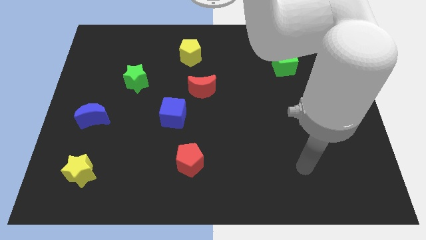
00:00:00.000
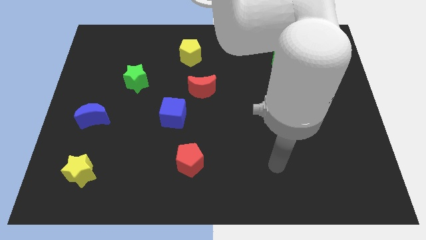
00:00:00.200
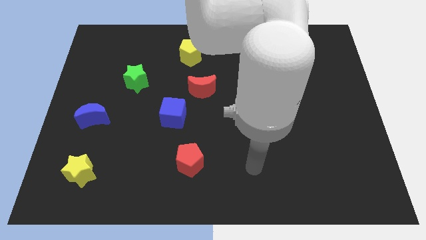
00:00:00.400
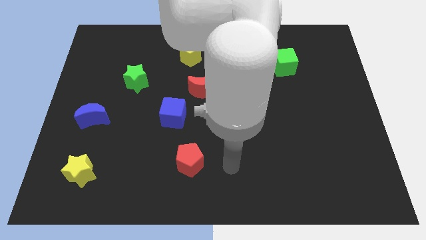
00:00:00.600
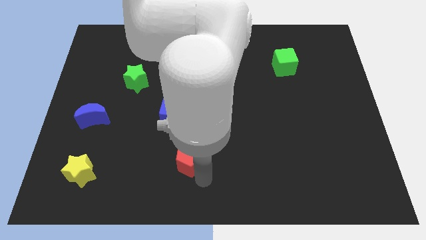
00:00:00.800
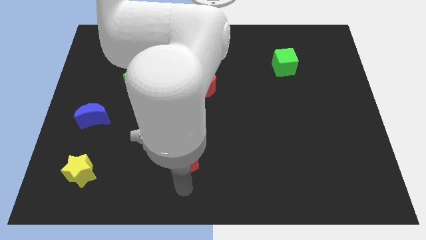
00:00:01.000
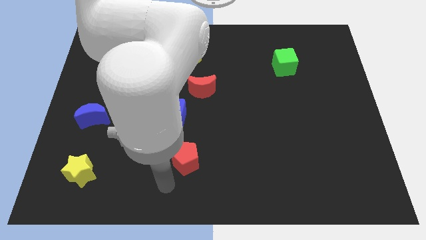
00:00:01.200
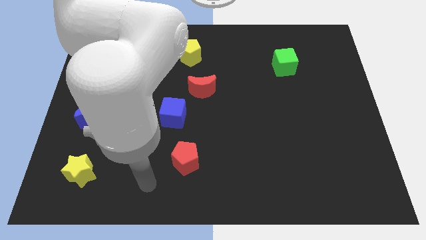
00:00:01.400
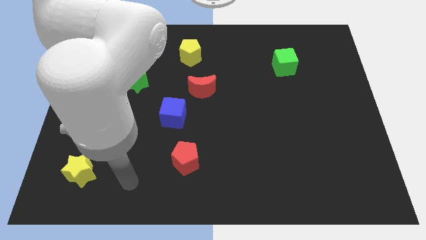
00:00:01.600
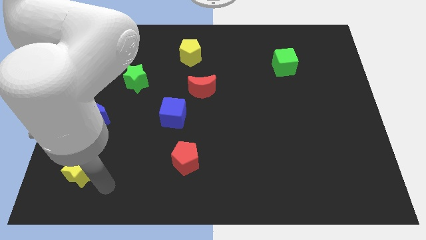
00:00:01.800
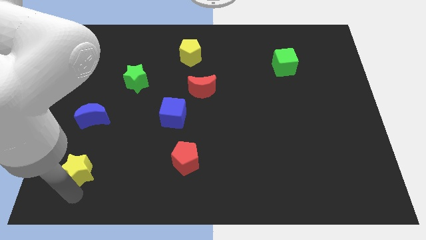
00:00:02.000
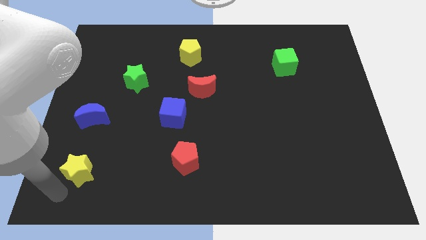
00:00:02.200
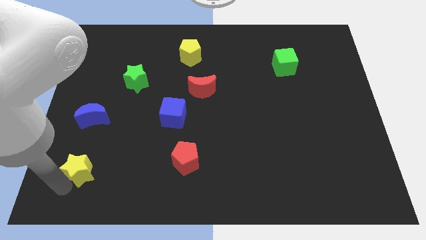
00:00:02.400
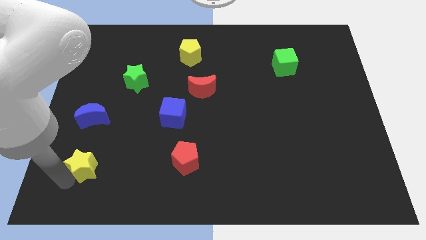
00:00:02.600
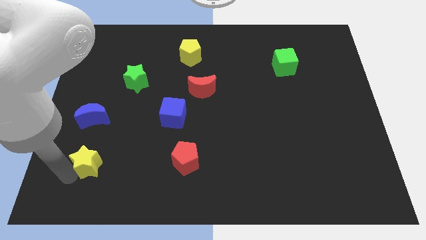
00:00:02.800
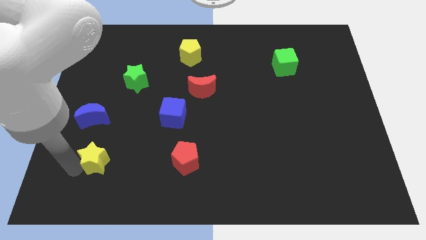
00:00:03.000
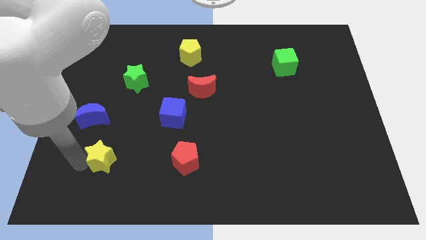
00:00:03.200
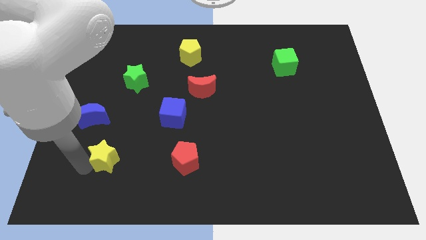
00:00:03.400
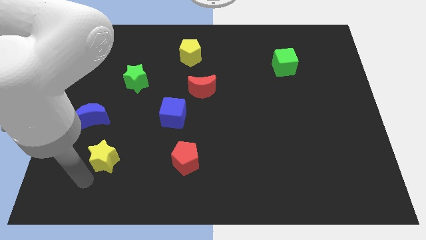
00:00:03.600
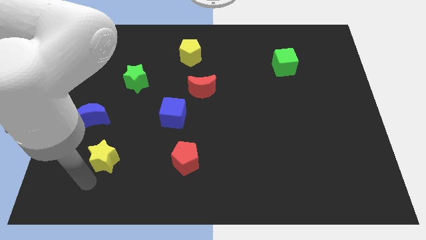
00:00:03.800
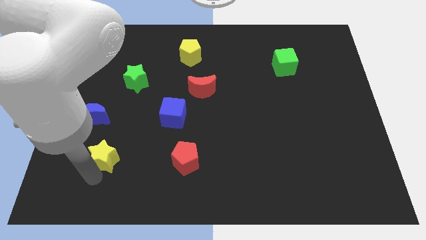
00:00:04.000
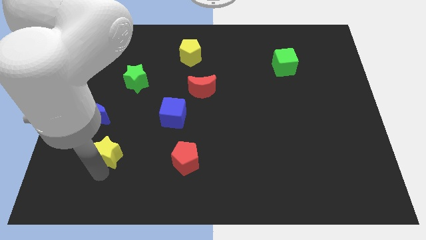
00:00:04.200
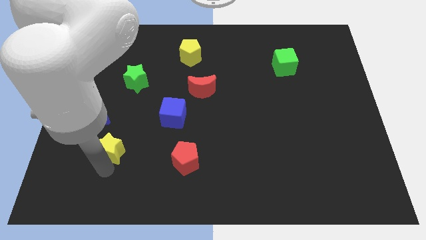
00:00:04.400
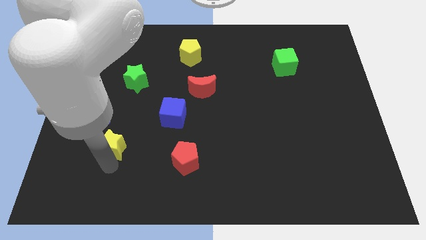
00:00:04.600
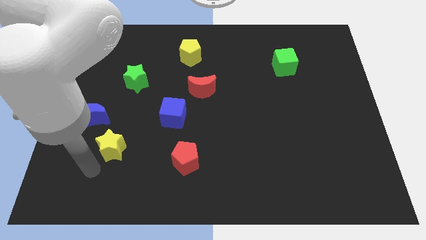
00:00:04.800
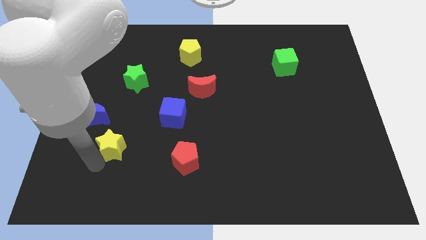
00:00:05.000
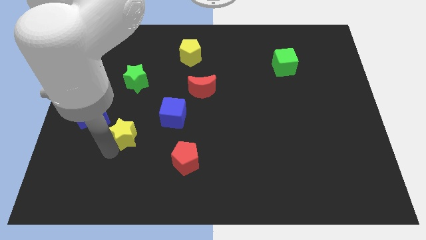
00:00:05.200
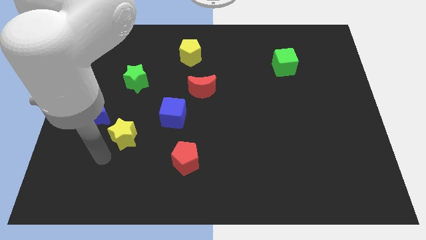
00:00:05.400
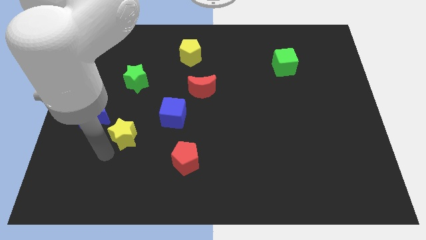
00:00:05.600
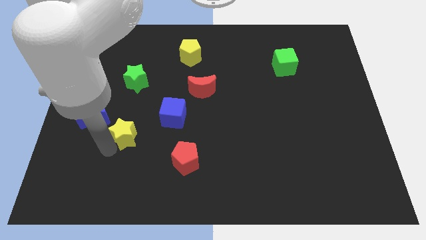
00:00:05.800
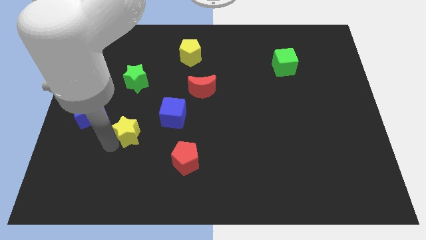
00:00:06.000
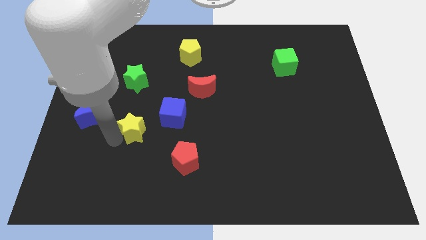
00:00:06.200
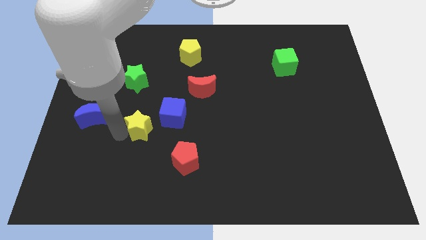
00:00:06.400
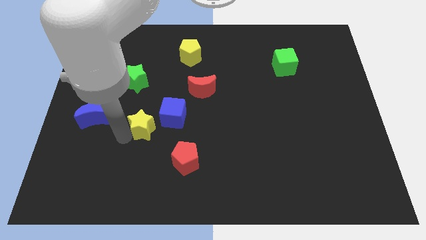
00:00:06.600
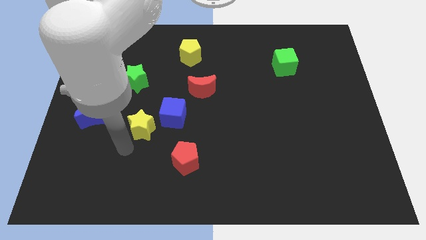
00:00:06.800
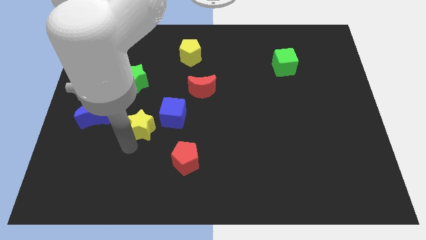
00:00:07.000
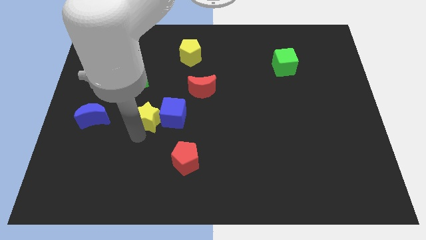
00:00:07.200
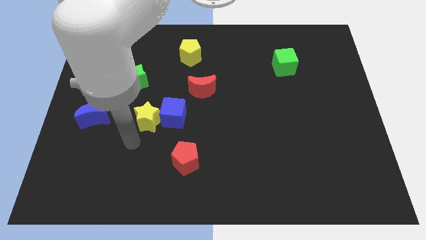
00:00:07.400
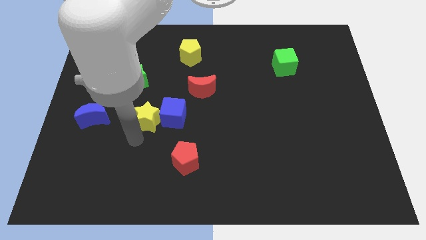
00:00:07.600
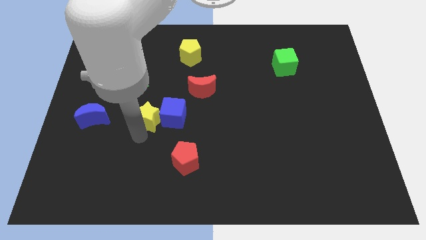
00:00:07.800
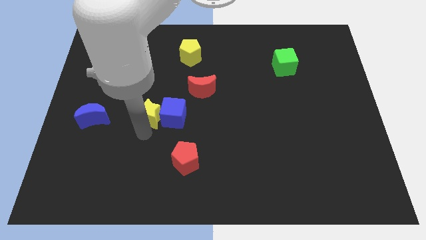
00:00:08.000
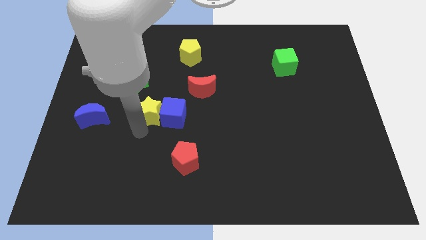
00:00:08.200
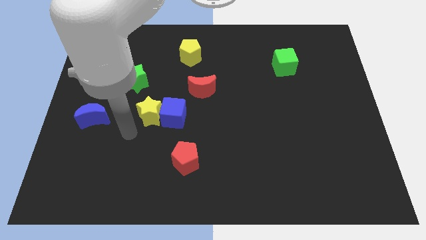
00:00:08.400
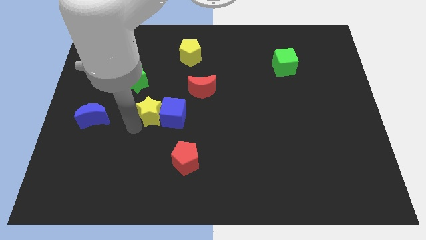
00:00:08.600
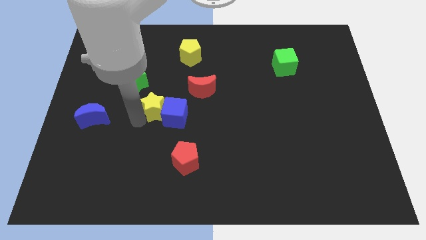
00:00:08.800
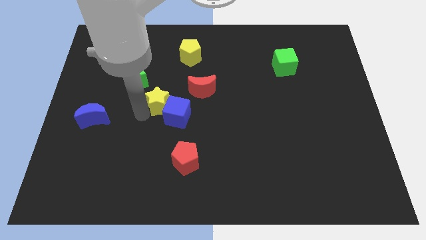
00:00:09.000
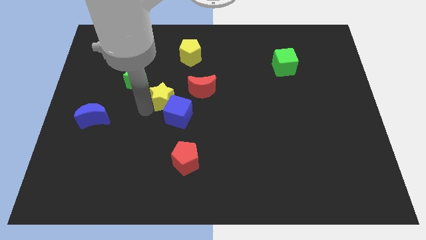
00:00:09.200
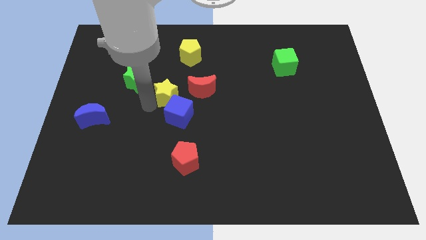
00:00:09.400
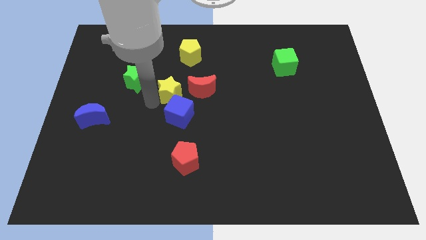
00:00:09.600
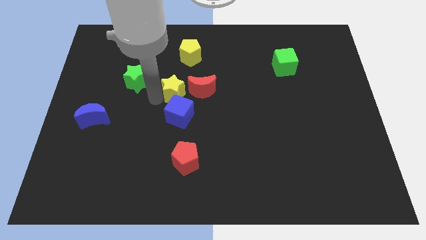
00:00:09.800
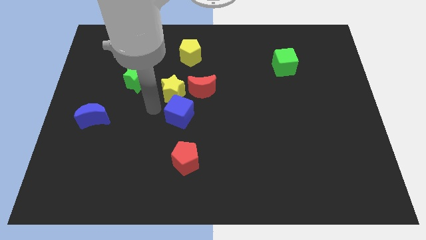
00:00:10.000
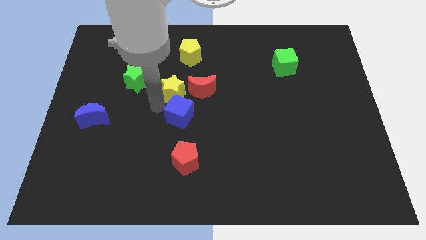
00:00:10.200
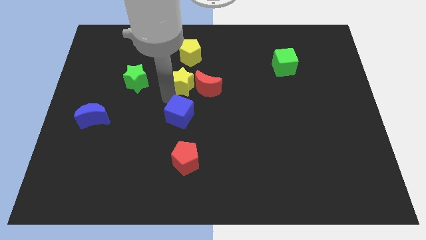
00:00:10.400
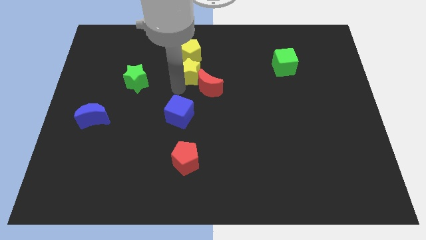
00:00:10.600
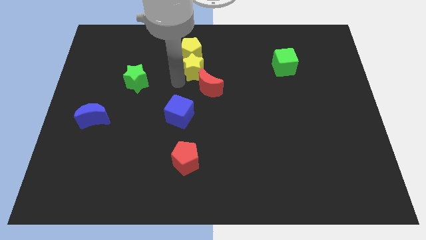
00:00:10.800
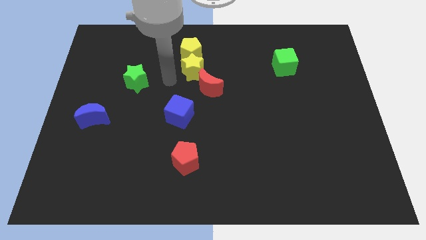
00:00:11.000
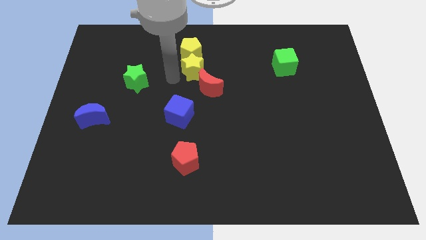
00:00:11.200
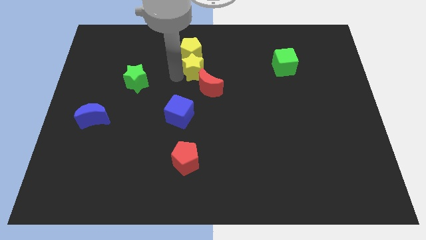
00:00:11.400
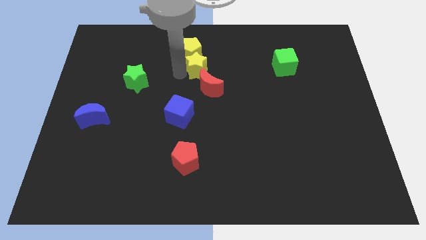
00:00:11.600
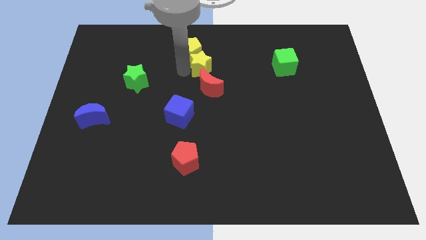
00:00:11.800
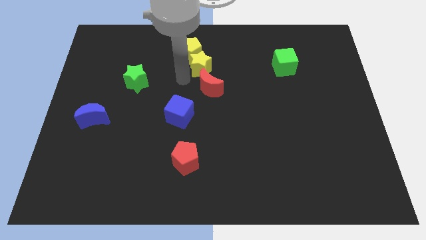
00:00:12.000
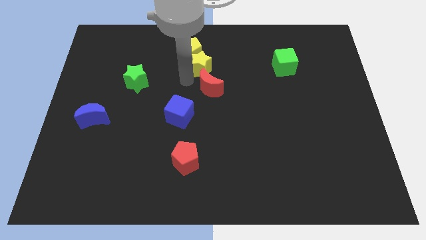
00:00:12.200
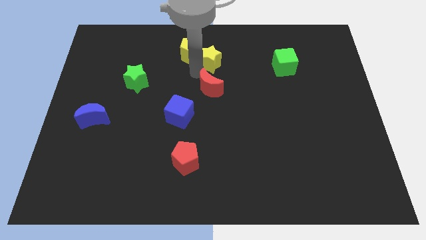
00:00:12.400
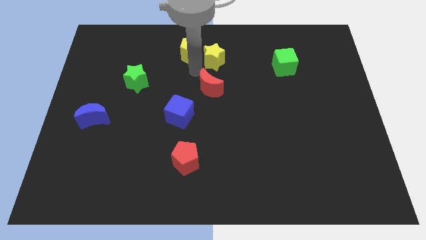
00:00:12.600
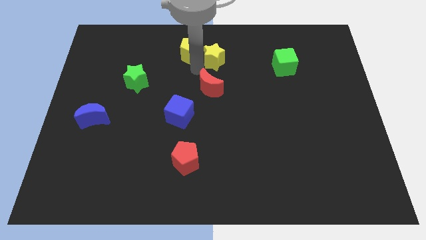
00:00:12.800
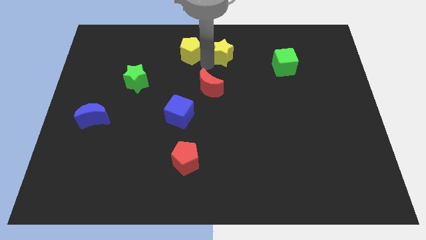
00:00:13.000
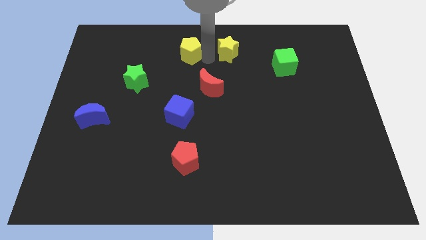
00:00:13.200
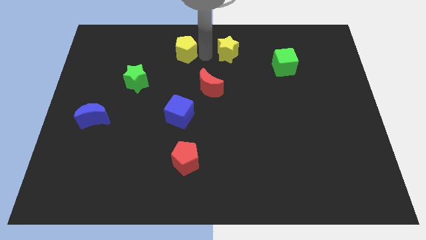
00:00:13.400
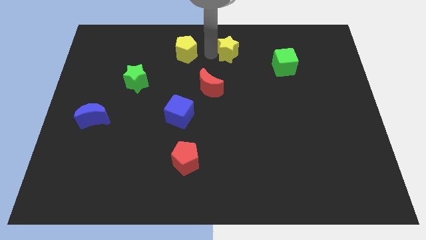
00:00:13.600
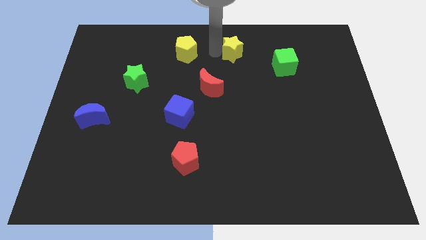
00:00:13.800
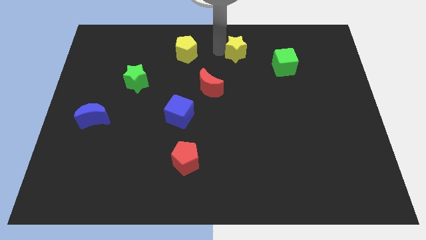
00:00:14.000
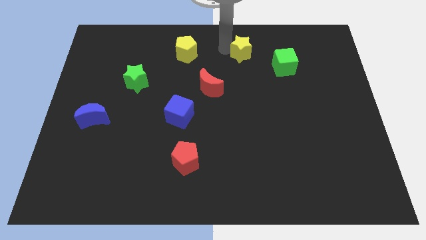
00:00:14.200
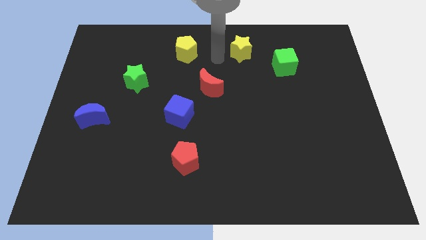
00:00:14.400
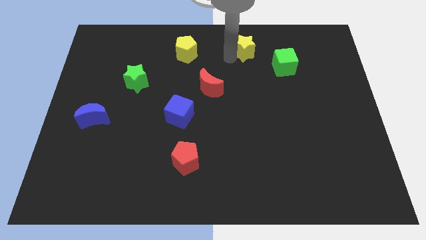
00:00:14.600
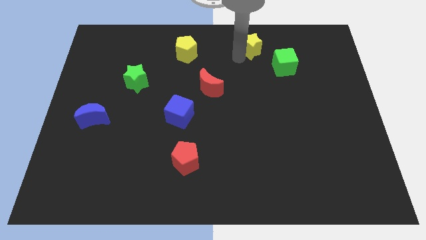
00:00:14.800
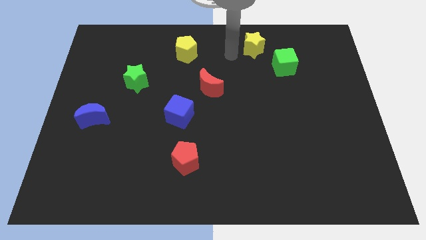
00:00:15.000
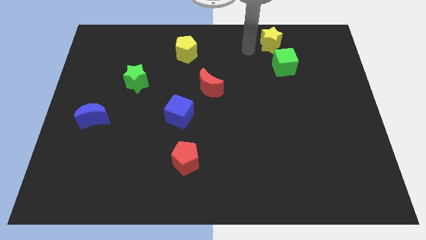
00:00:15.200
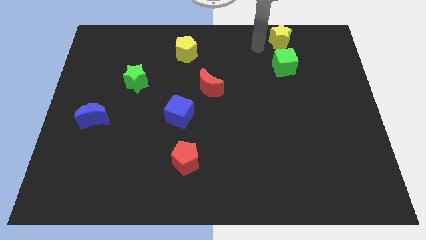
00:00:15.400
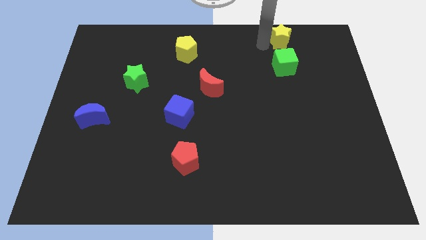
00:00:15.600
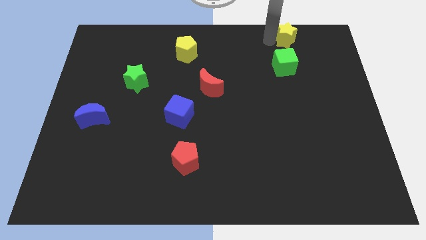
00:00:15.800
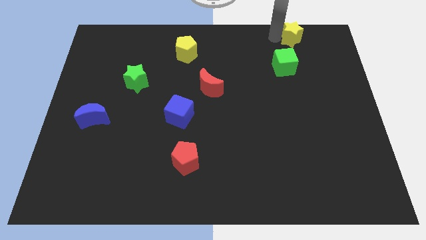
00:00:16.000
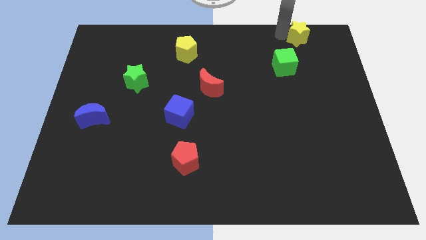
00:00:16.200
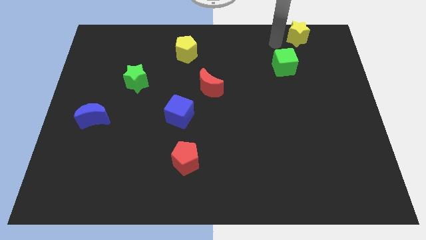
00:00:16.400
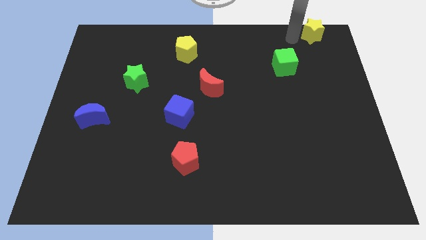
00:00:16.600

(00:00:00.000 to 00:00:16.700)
put the yellow star to the top right
